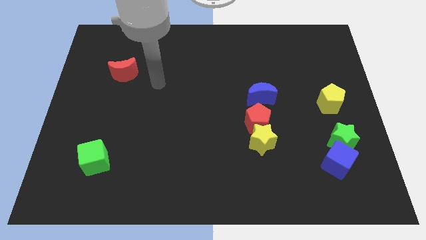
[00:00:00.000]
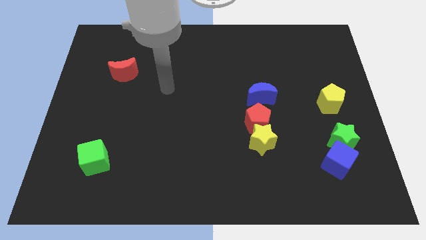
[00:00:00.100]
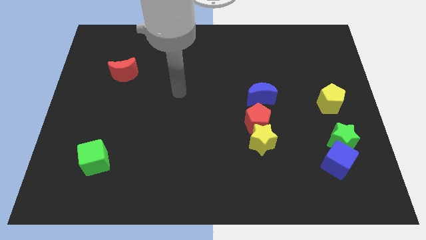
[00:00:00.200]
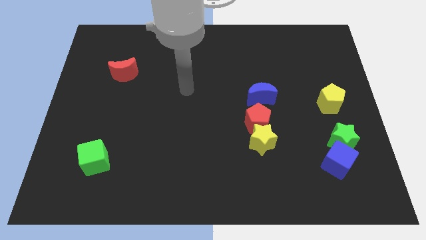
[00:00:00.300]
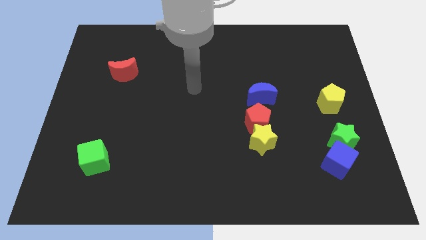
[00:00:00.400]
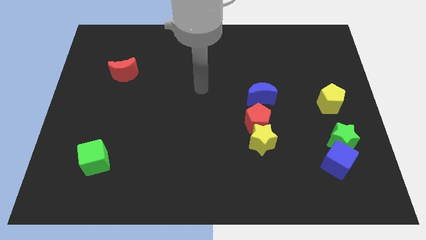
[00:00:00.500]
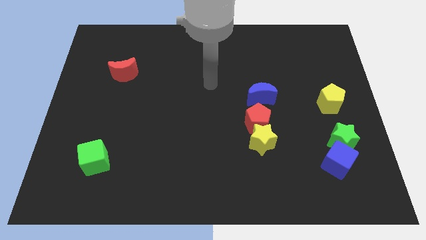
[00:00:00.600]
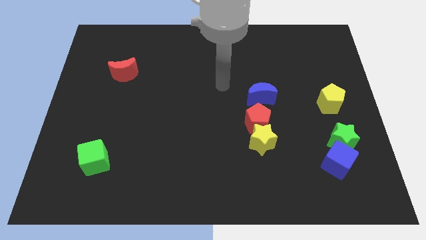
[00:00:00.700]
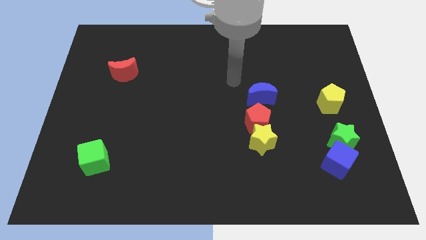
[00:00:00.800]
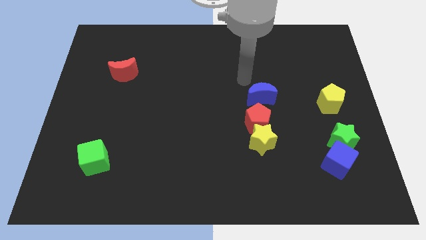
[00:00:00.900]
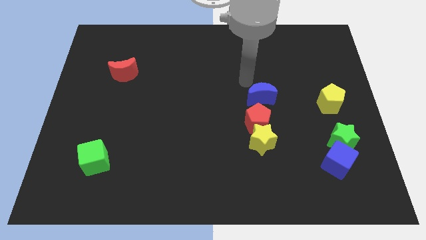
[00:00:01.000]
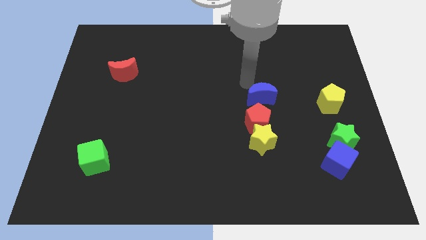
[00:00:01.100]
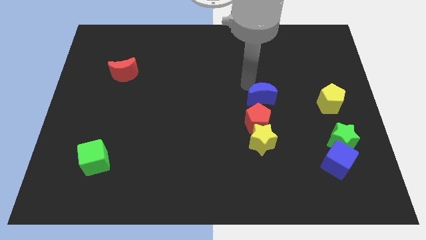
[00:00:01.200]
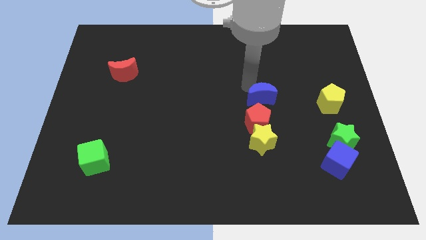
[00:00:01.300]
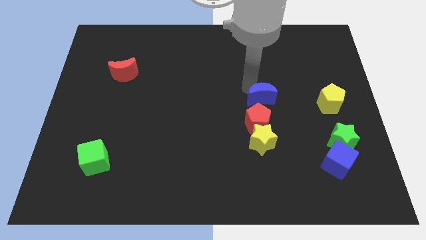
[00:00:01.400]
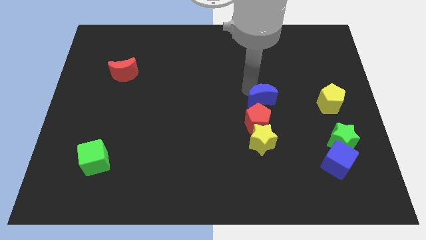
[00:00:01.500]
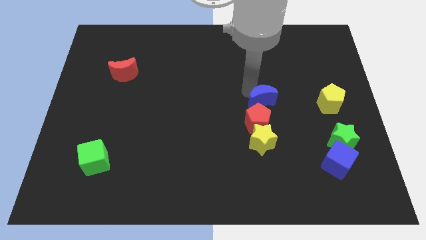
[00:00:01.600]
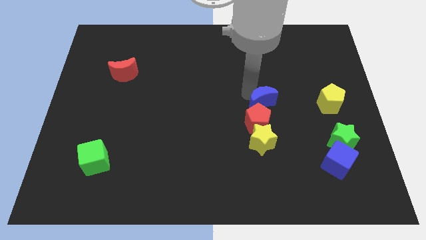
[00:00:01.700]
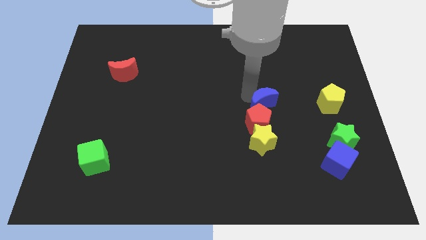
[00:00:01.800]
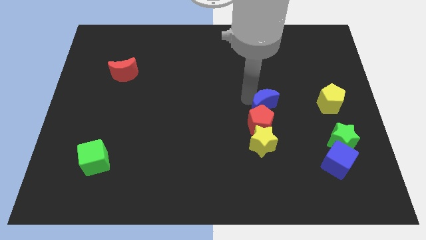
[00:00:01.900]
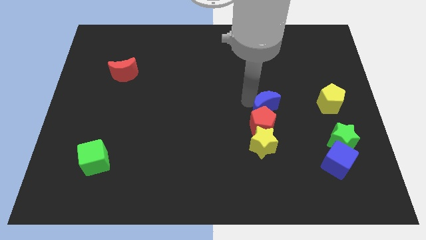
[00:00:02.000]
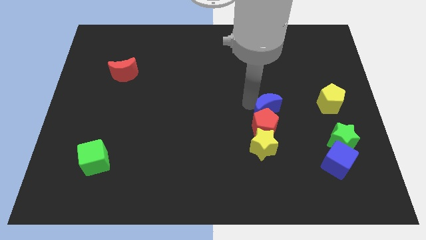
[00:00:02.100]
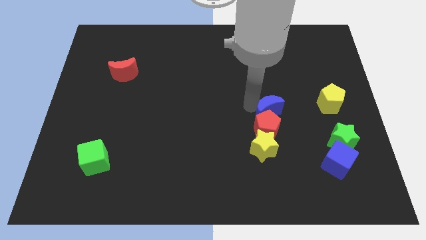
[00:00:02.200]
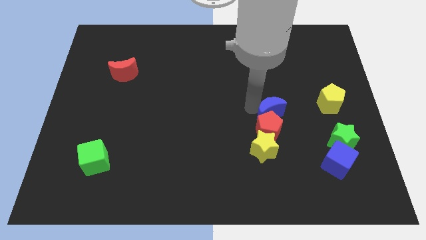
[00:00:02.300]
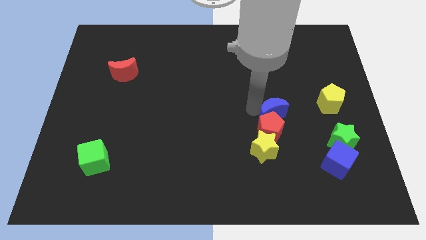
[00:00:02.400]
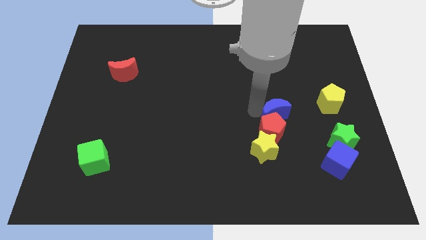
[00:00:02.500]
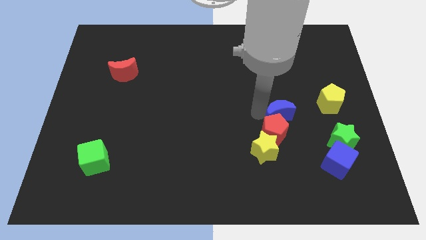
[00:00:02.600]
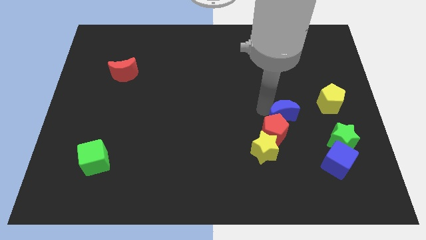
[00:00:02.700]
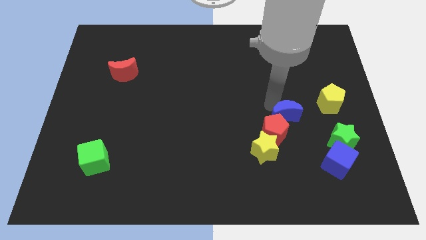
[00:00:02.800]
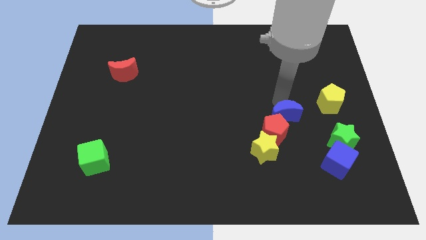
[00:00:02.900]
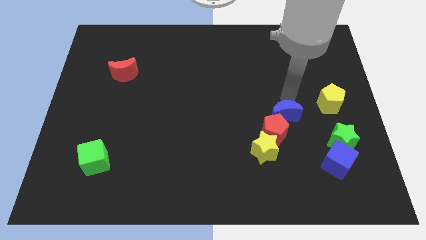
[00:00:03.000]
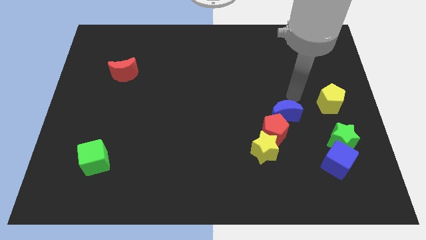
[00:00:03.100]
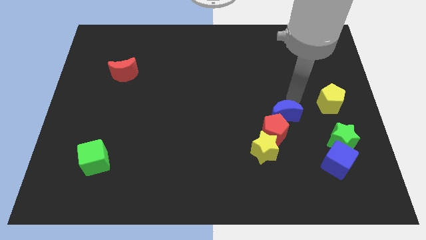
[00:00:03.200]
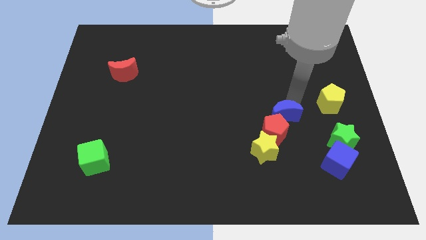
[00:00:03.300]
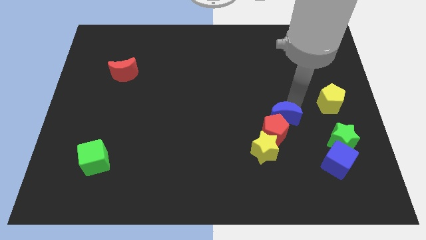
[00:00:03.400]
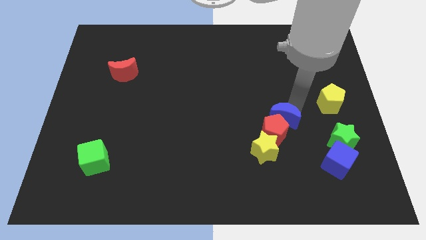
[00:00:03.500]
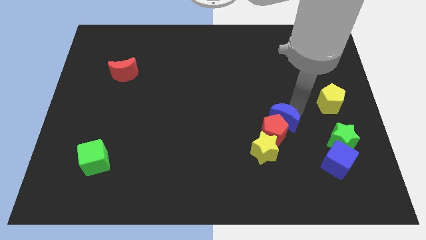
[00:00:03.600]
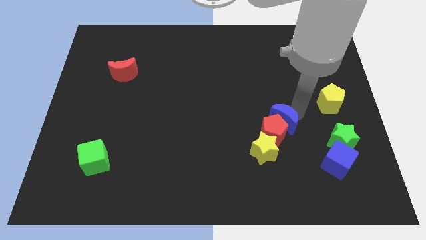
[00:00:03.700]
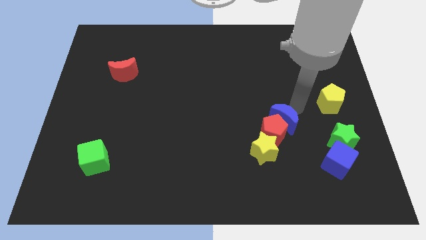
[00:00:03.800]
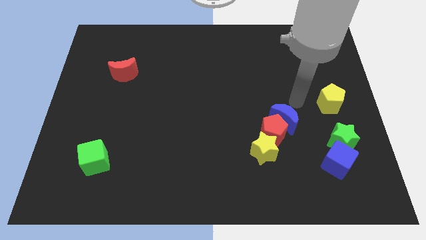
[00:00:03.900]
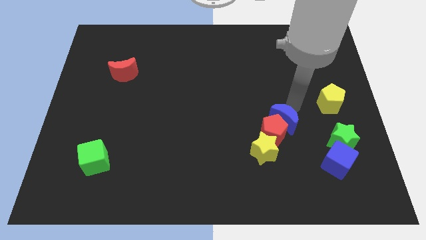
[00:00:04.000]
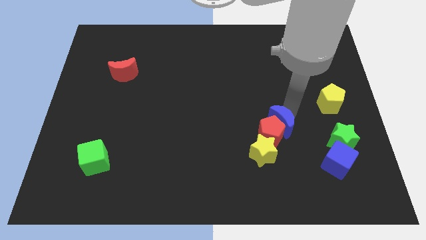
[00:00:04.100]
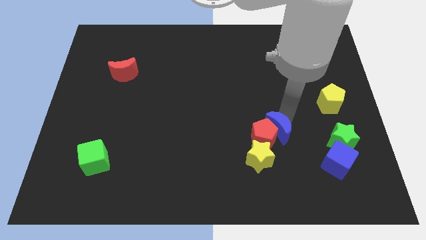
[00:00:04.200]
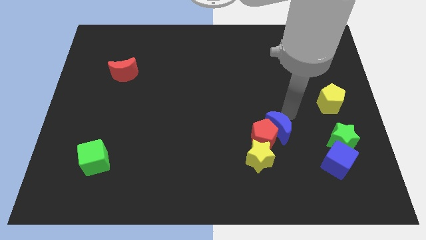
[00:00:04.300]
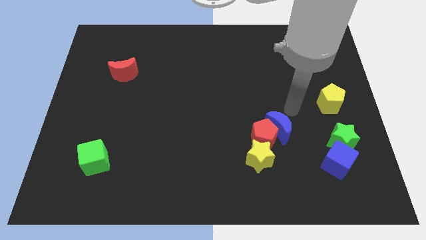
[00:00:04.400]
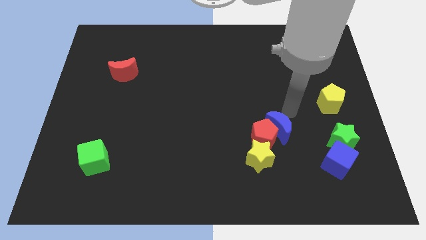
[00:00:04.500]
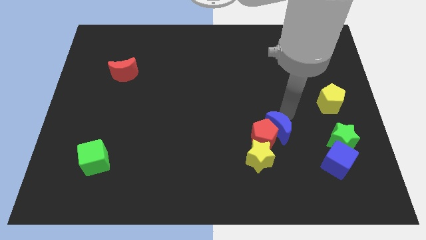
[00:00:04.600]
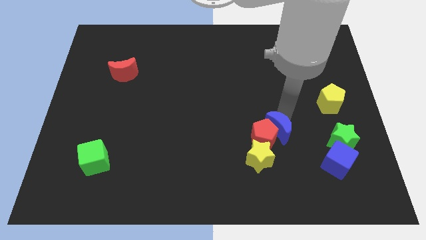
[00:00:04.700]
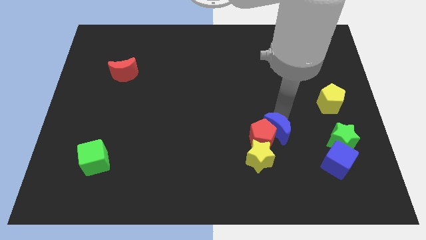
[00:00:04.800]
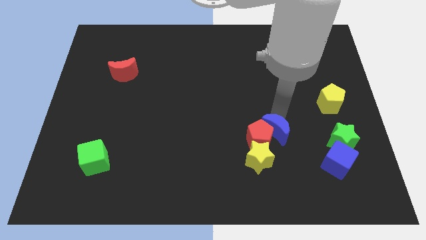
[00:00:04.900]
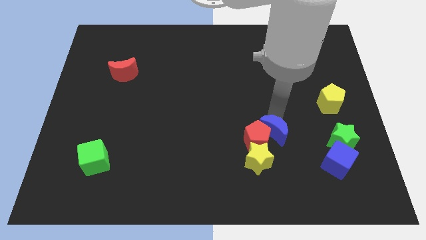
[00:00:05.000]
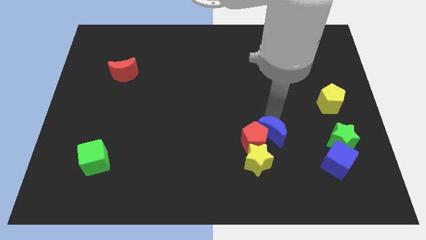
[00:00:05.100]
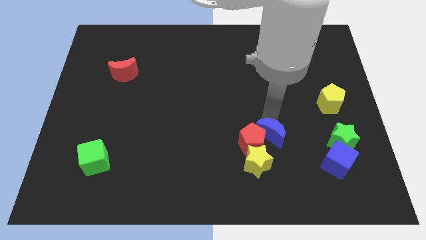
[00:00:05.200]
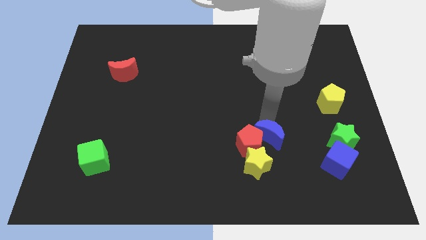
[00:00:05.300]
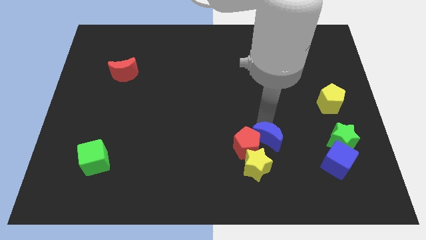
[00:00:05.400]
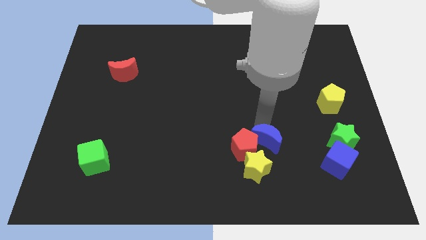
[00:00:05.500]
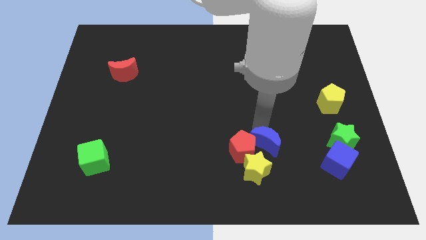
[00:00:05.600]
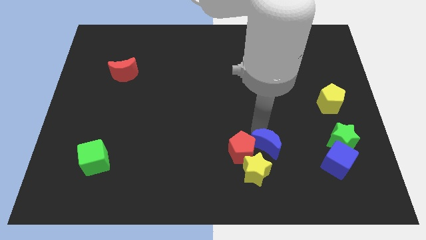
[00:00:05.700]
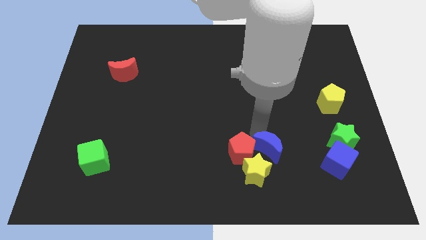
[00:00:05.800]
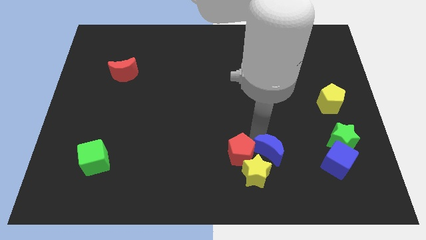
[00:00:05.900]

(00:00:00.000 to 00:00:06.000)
slide the blue moon next to the yellow star
